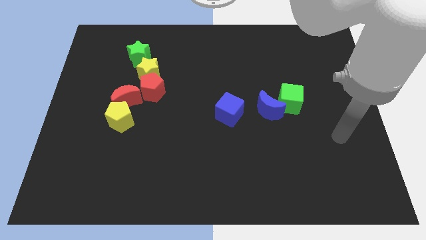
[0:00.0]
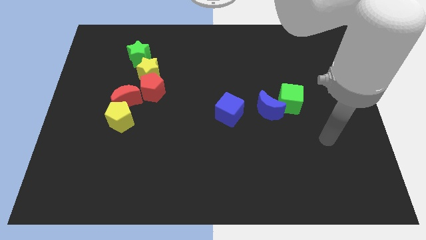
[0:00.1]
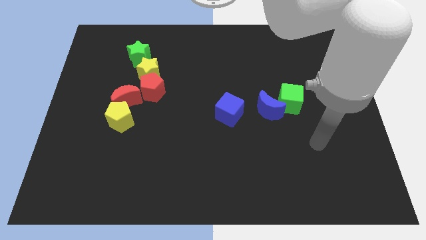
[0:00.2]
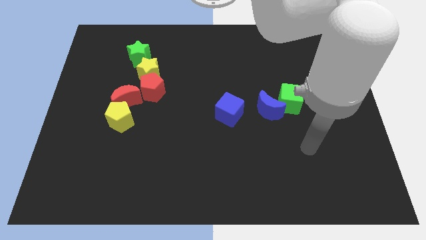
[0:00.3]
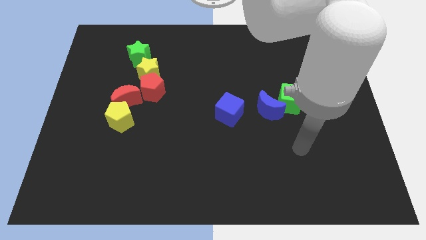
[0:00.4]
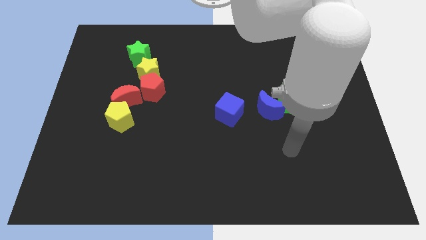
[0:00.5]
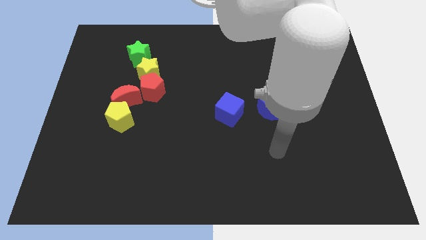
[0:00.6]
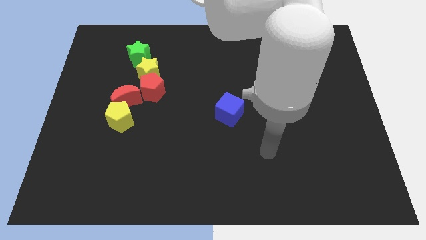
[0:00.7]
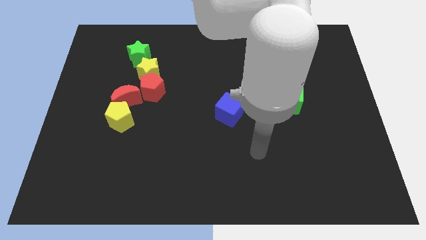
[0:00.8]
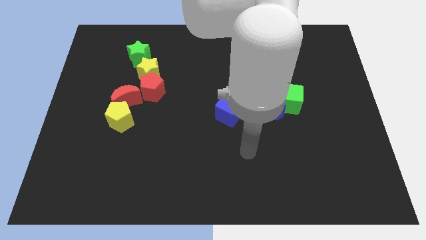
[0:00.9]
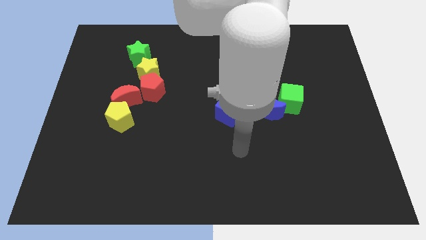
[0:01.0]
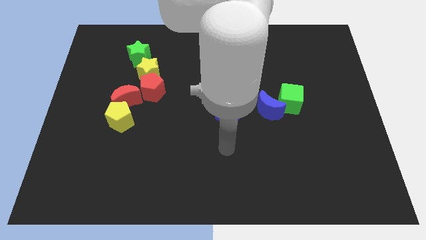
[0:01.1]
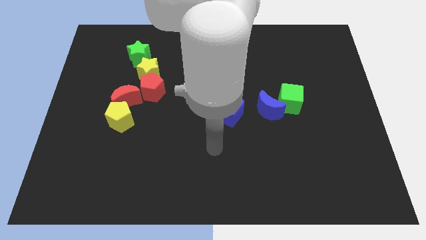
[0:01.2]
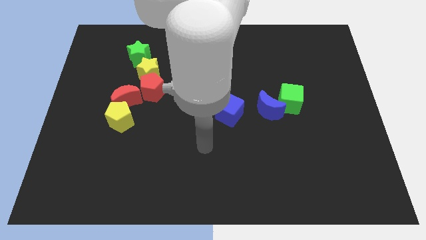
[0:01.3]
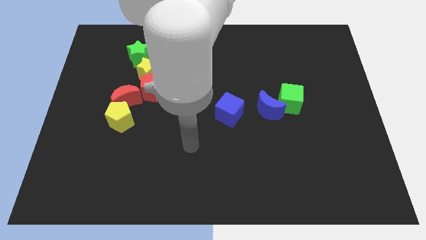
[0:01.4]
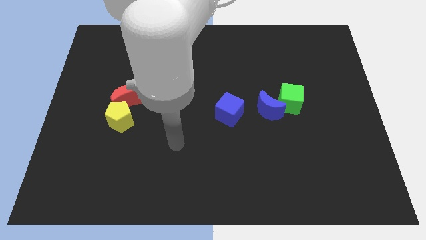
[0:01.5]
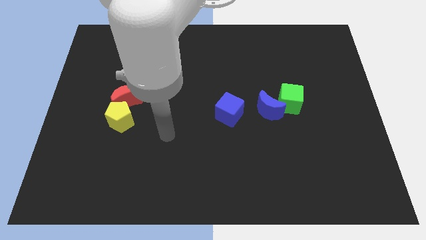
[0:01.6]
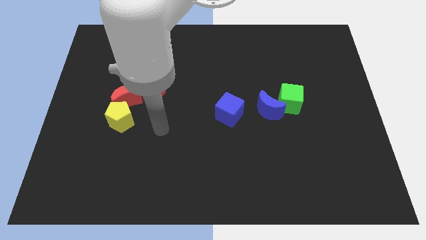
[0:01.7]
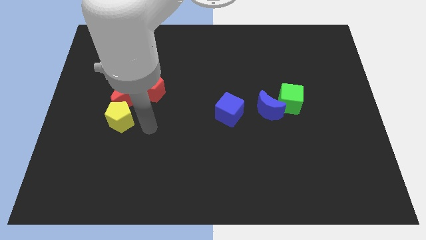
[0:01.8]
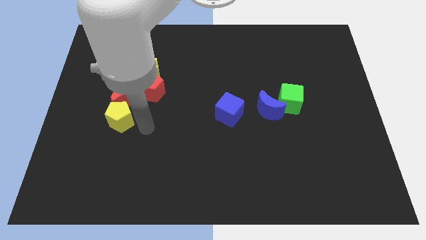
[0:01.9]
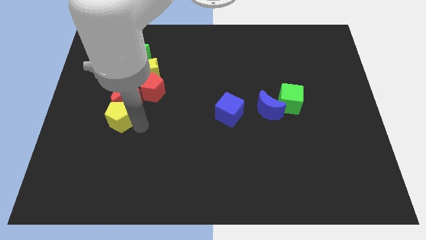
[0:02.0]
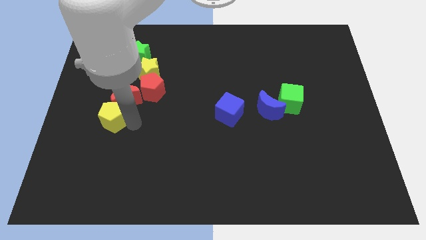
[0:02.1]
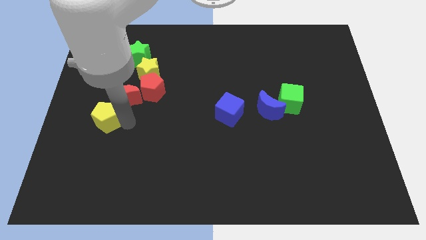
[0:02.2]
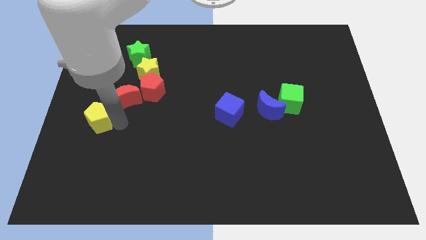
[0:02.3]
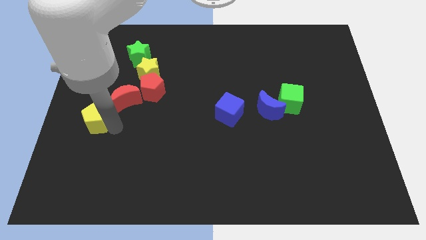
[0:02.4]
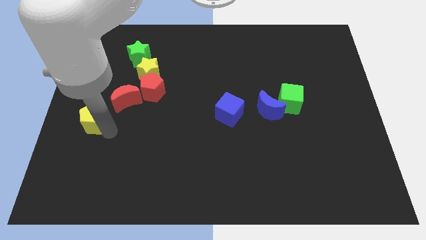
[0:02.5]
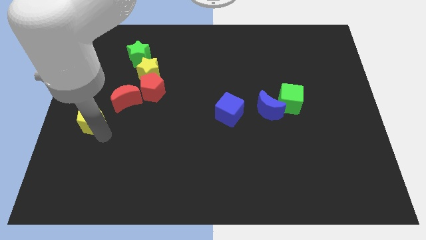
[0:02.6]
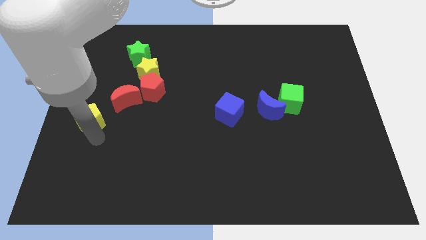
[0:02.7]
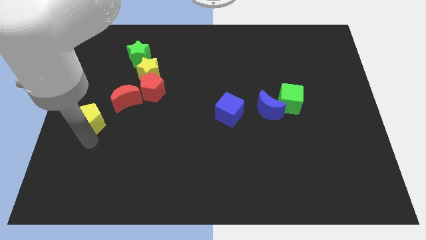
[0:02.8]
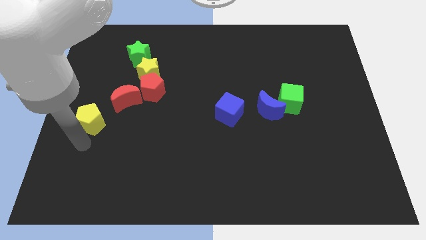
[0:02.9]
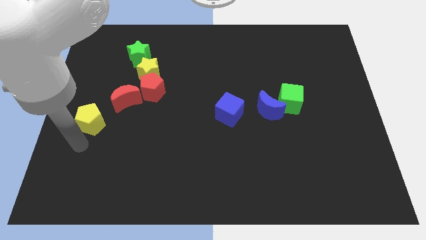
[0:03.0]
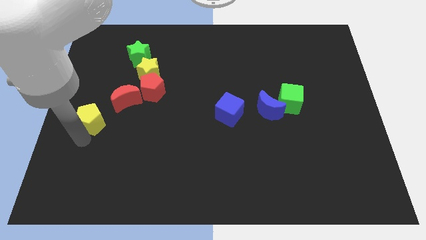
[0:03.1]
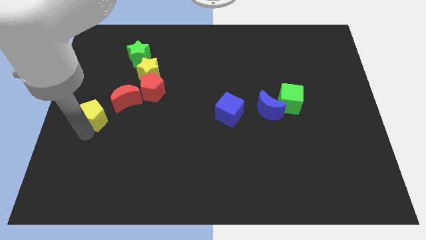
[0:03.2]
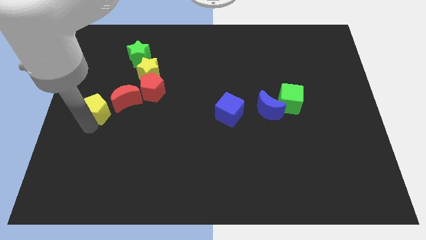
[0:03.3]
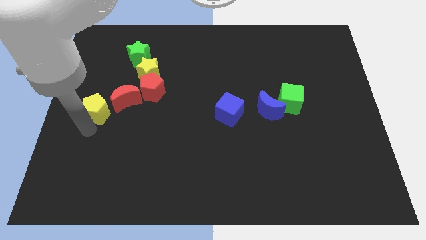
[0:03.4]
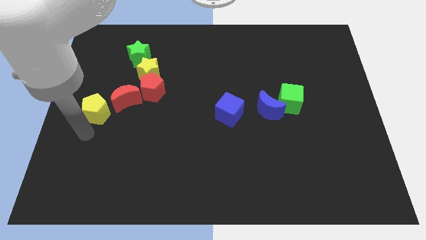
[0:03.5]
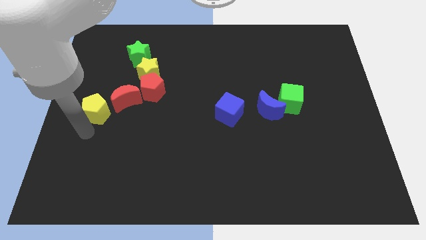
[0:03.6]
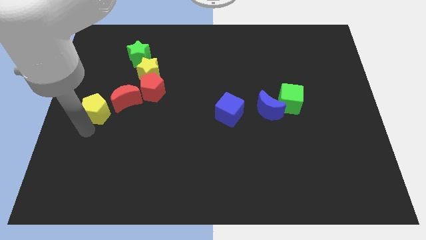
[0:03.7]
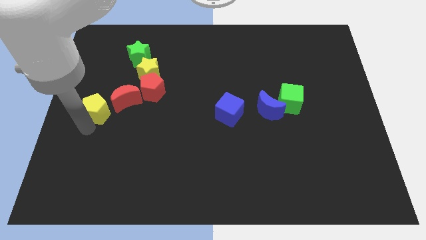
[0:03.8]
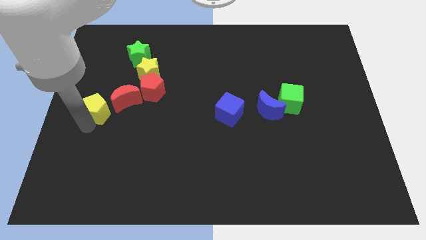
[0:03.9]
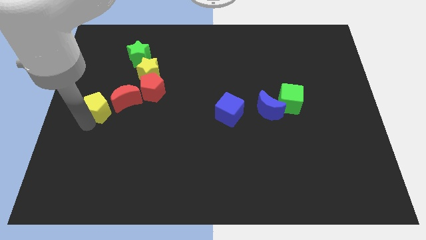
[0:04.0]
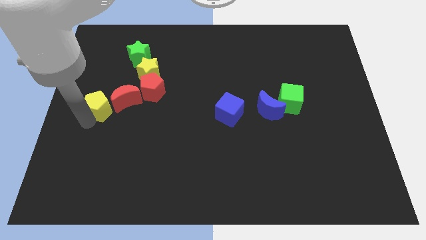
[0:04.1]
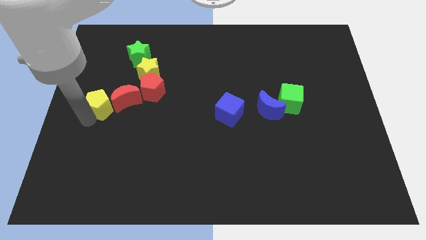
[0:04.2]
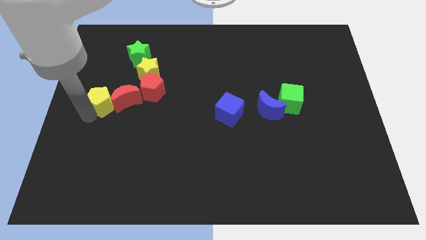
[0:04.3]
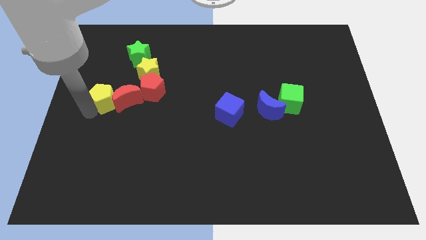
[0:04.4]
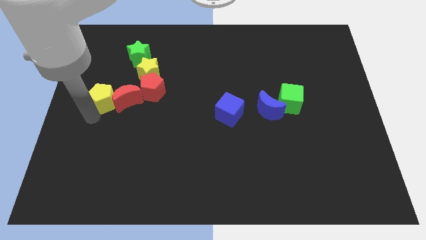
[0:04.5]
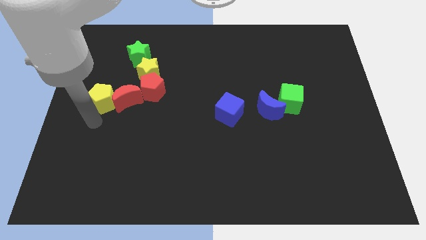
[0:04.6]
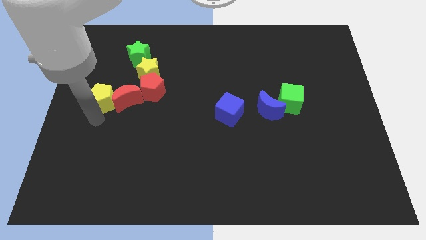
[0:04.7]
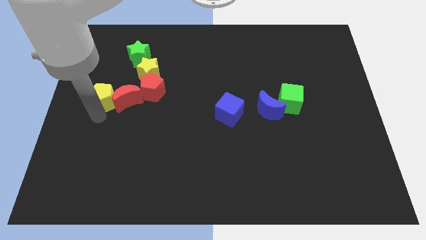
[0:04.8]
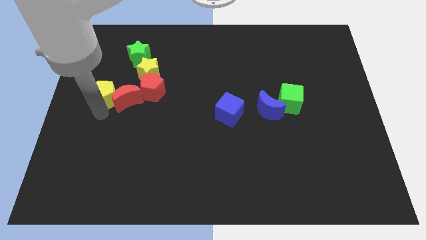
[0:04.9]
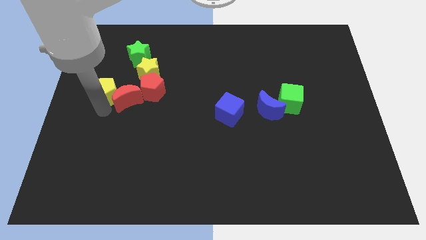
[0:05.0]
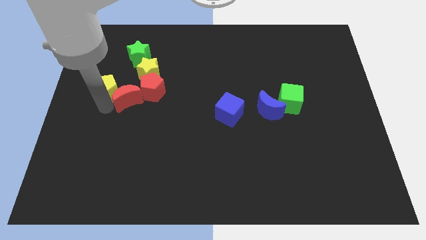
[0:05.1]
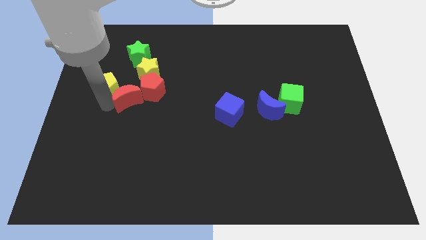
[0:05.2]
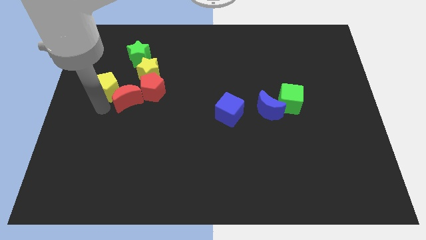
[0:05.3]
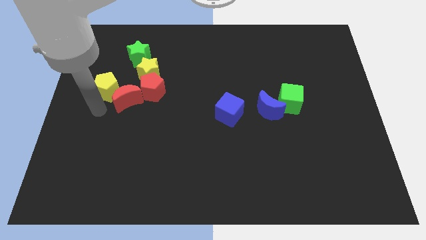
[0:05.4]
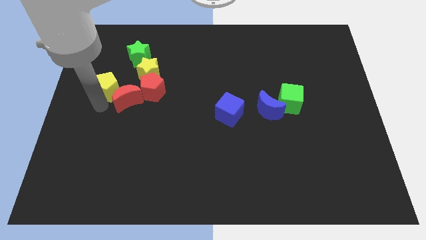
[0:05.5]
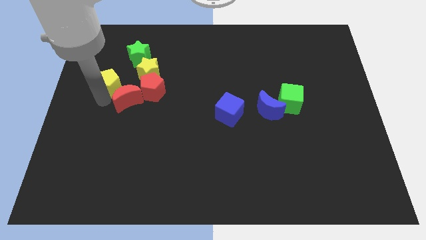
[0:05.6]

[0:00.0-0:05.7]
slide the yellow pentagon to the bottom left of the green star

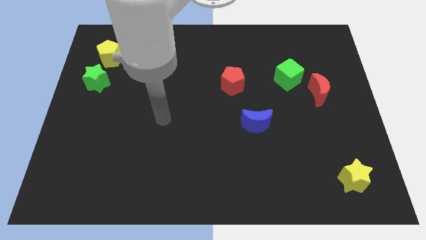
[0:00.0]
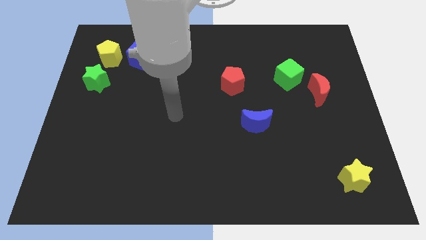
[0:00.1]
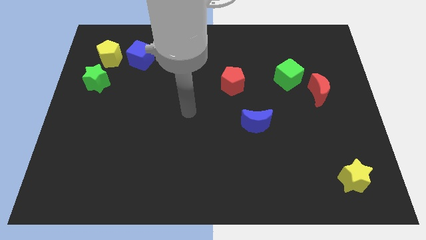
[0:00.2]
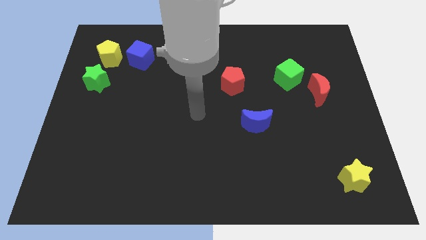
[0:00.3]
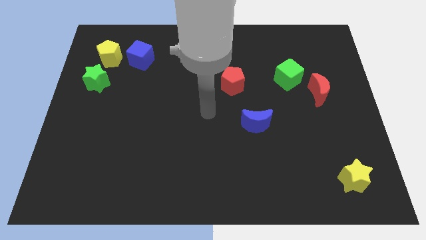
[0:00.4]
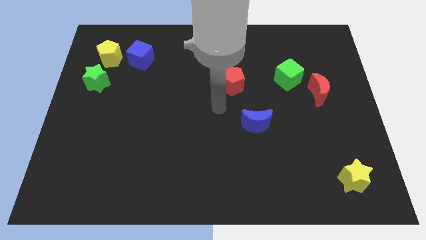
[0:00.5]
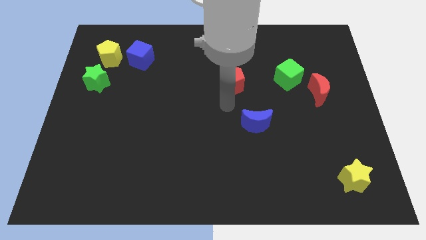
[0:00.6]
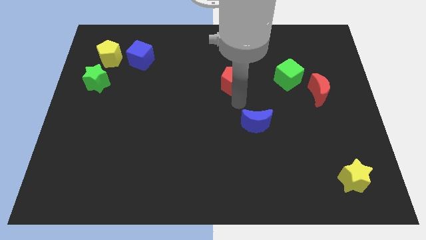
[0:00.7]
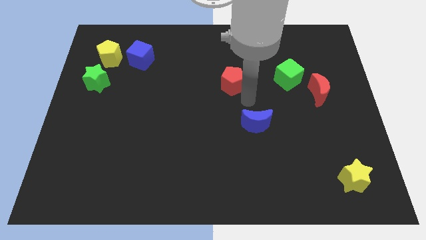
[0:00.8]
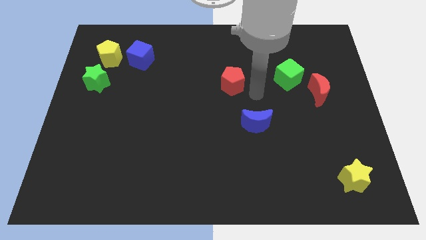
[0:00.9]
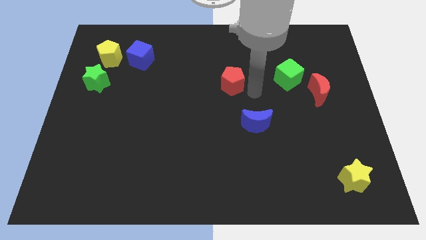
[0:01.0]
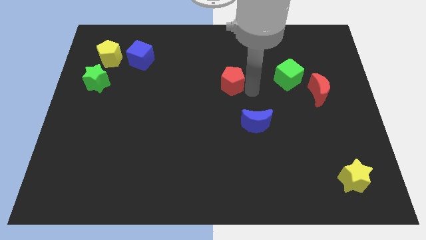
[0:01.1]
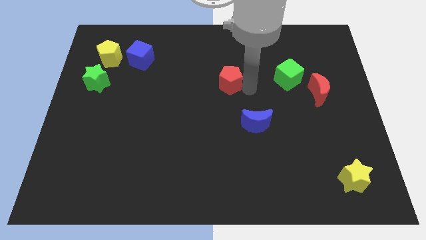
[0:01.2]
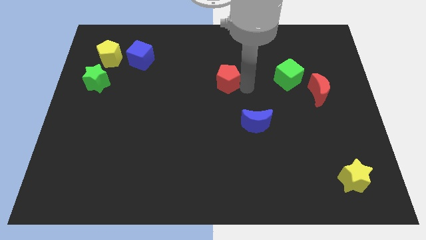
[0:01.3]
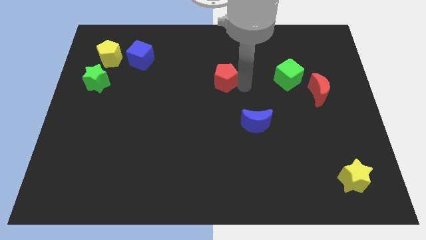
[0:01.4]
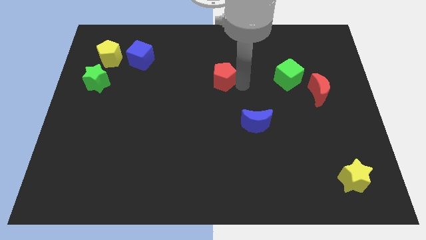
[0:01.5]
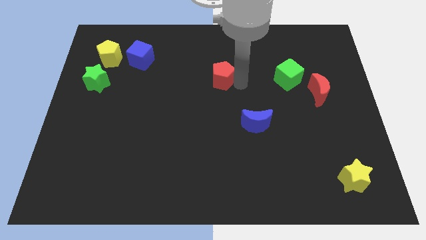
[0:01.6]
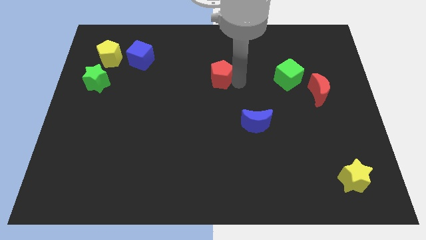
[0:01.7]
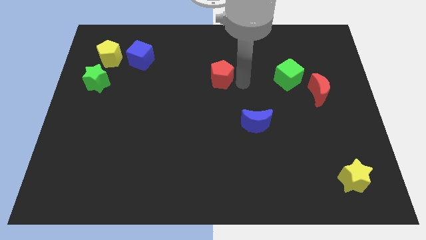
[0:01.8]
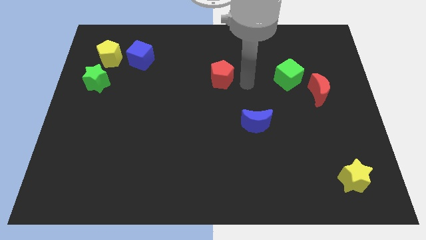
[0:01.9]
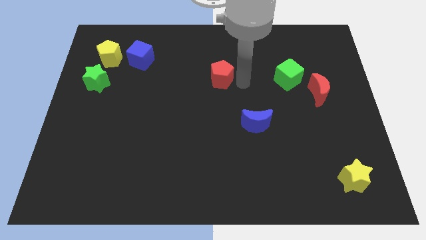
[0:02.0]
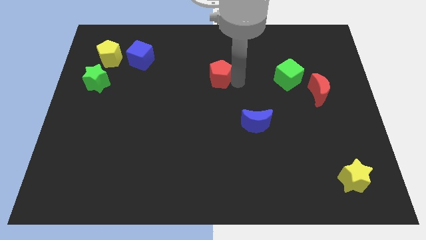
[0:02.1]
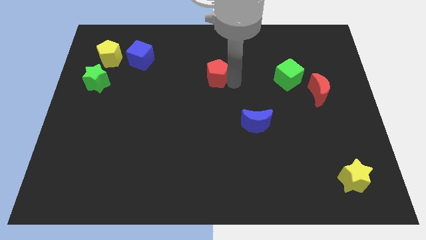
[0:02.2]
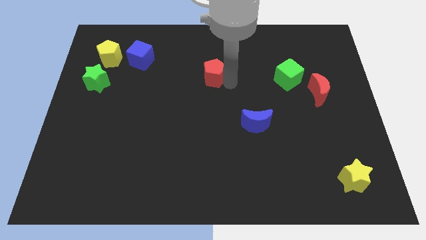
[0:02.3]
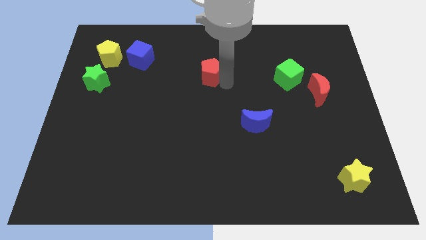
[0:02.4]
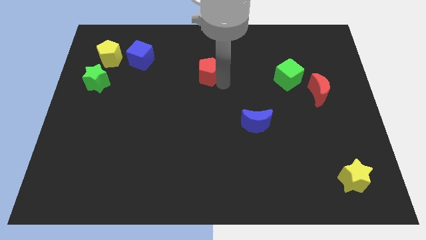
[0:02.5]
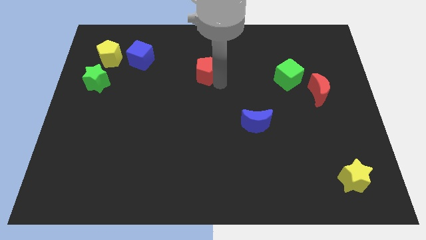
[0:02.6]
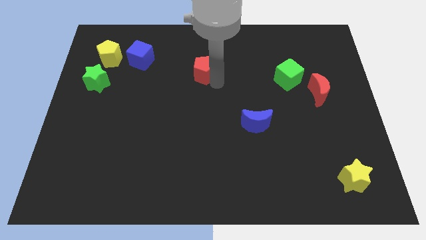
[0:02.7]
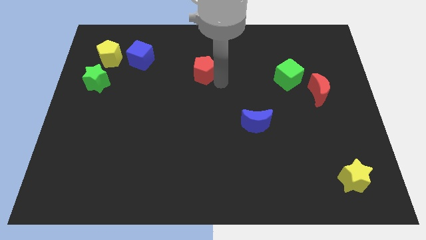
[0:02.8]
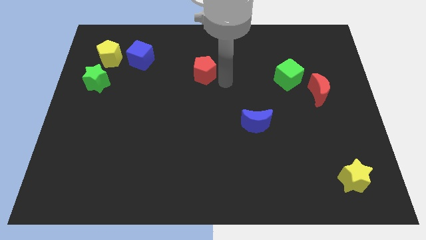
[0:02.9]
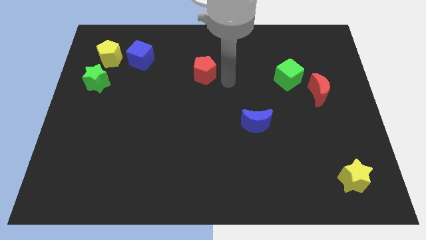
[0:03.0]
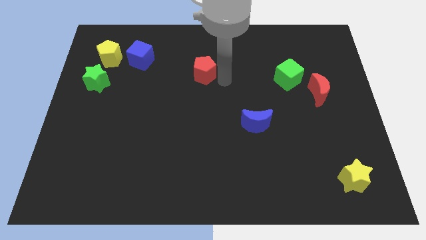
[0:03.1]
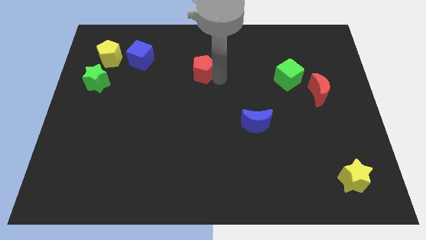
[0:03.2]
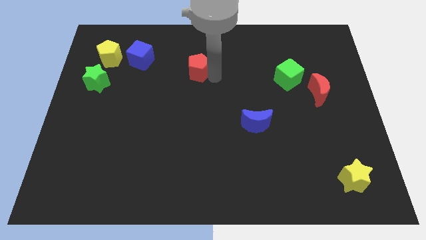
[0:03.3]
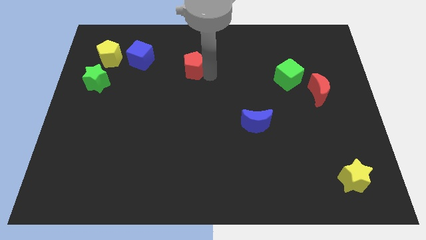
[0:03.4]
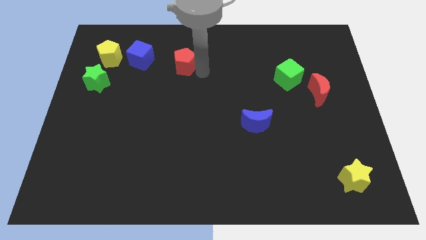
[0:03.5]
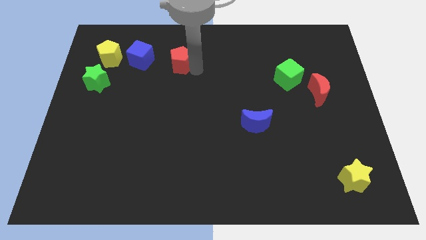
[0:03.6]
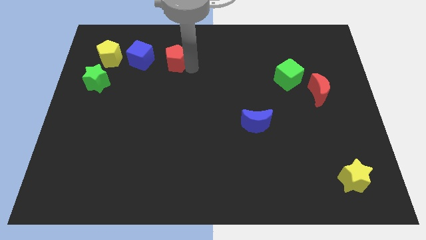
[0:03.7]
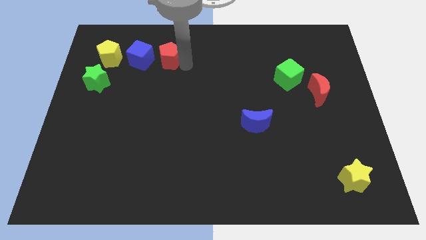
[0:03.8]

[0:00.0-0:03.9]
move the red pentagon to the right side of the yellow pentagon
